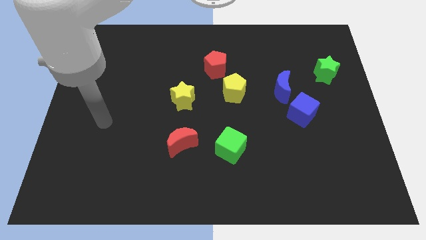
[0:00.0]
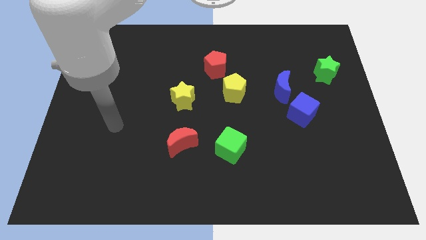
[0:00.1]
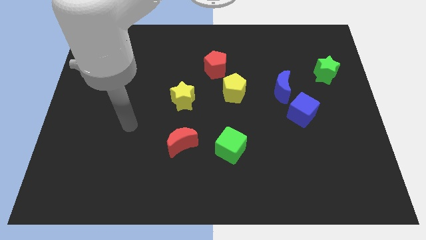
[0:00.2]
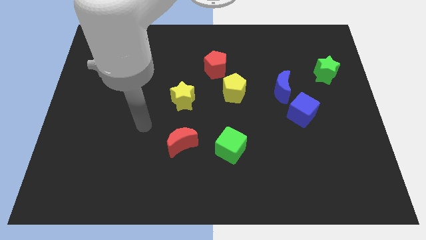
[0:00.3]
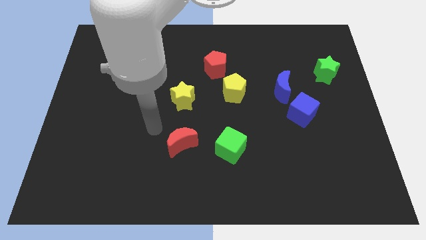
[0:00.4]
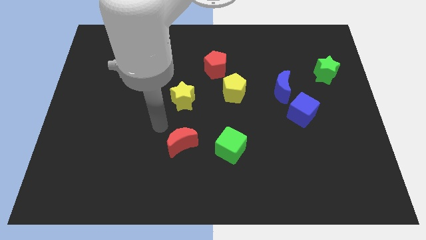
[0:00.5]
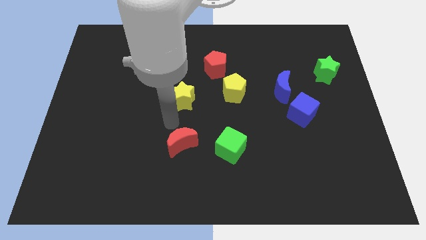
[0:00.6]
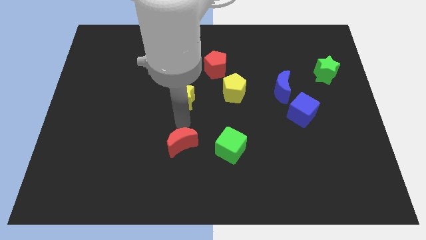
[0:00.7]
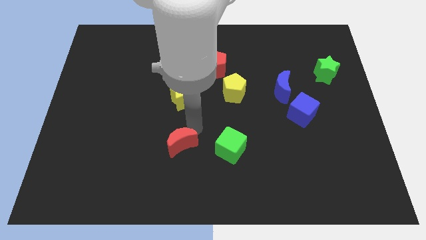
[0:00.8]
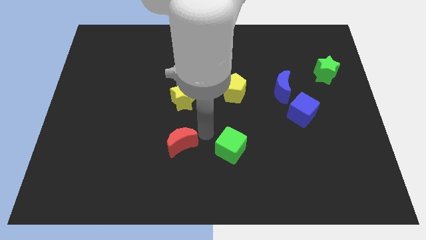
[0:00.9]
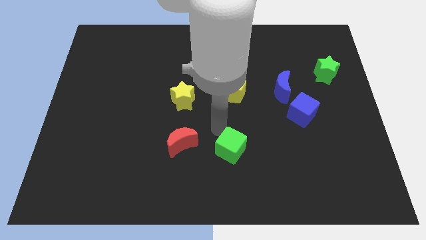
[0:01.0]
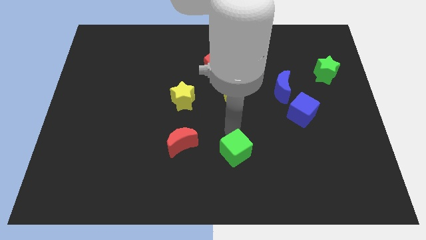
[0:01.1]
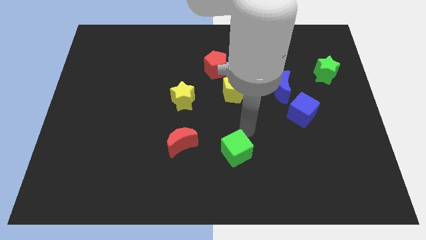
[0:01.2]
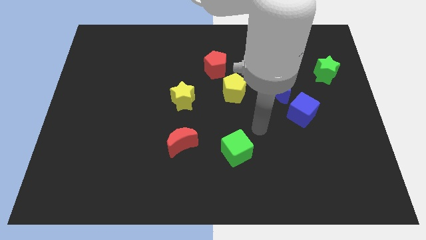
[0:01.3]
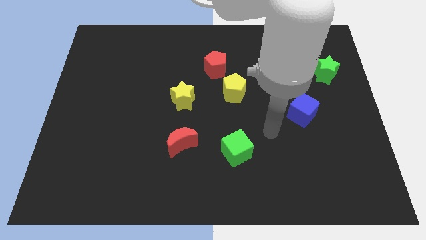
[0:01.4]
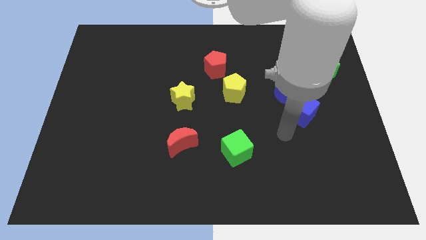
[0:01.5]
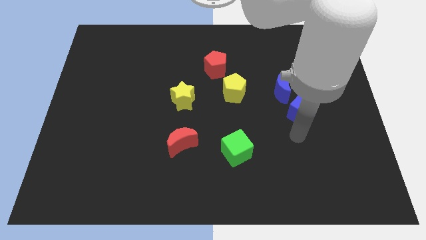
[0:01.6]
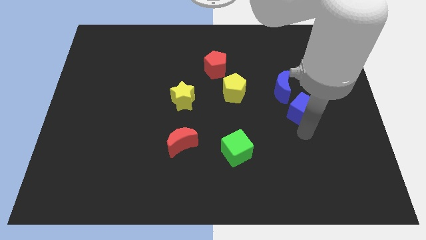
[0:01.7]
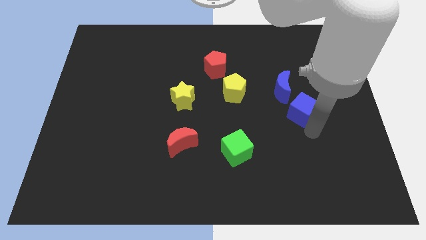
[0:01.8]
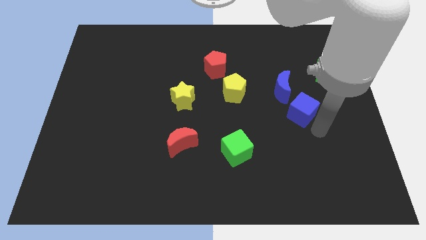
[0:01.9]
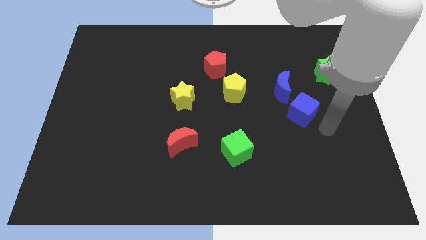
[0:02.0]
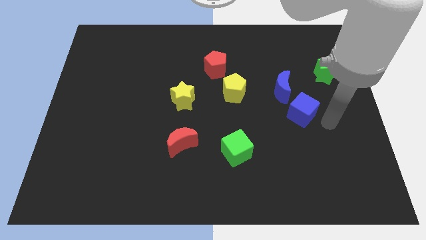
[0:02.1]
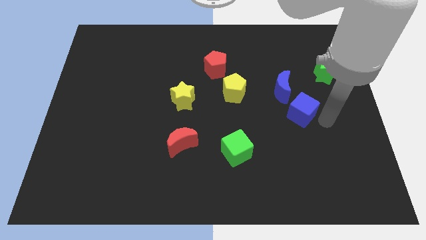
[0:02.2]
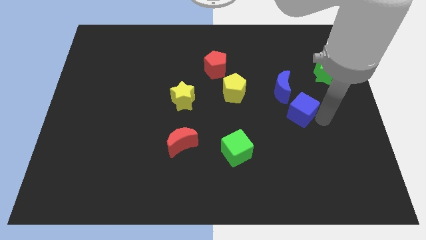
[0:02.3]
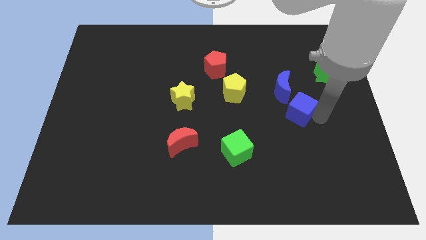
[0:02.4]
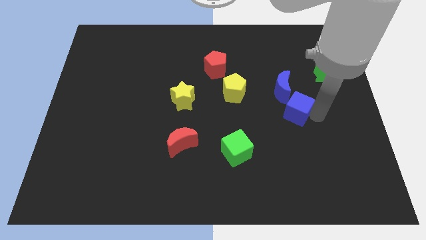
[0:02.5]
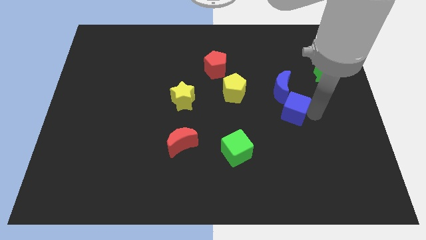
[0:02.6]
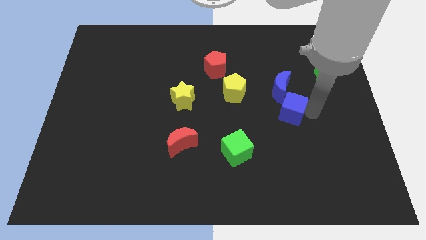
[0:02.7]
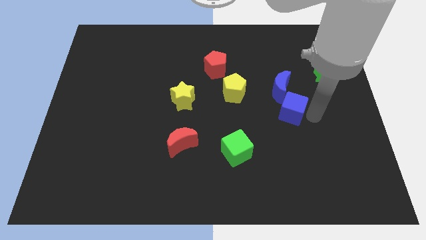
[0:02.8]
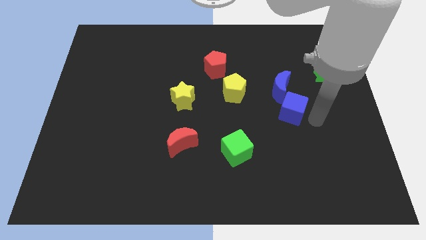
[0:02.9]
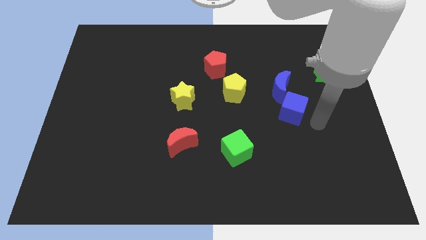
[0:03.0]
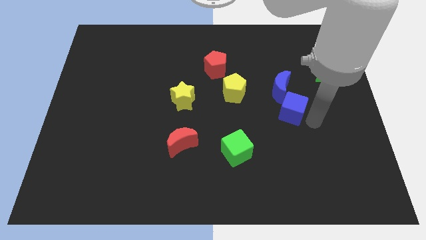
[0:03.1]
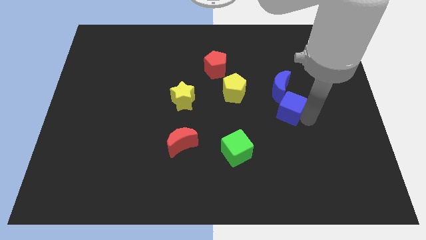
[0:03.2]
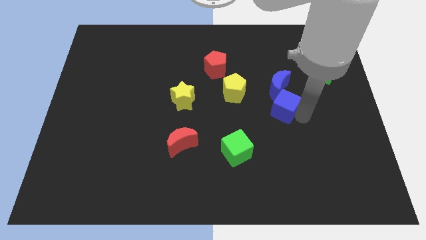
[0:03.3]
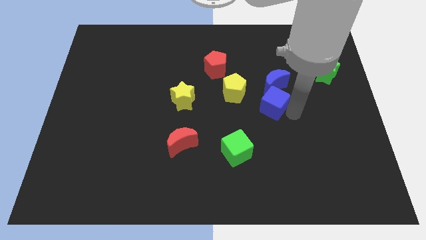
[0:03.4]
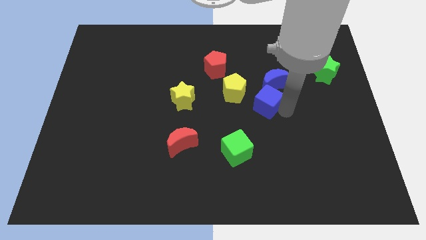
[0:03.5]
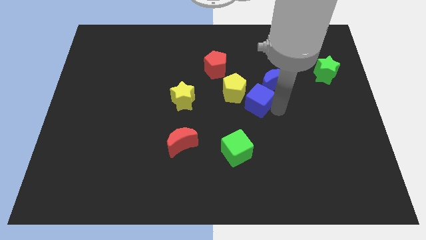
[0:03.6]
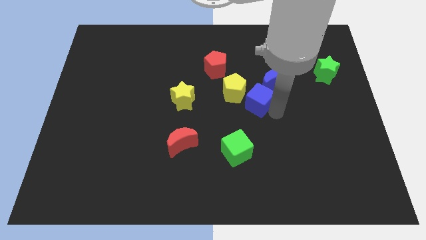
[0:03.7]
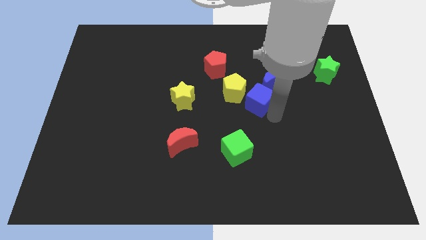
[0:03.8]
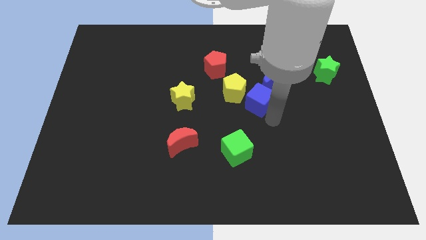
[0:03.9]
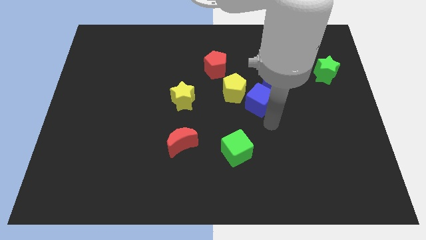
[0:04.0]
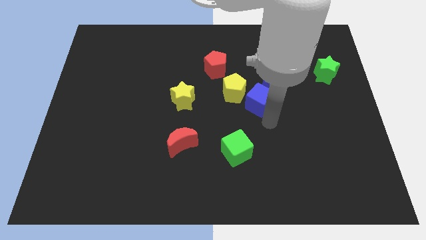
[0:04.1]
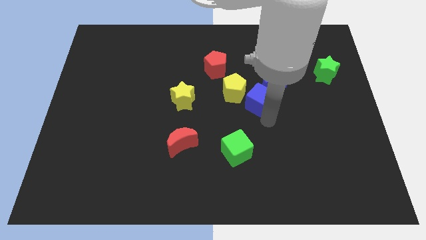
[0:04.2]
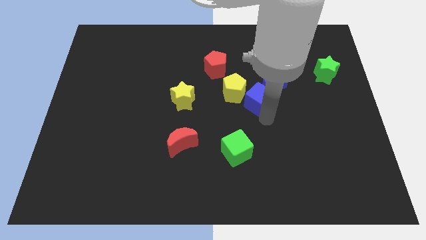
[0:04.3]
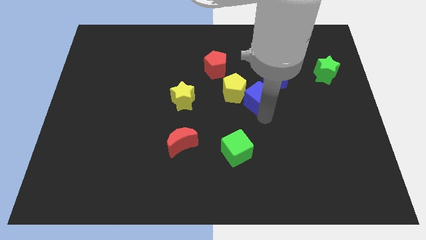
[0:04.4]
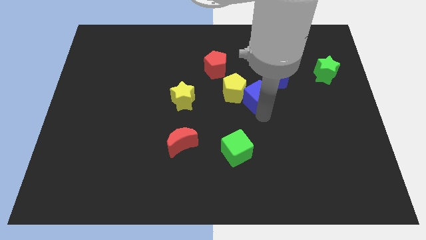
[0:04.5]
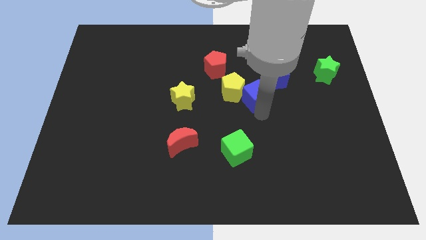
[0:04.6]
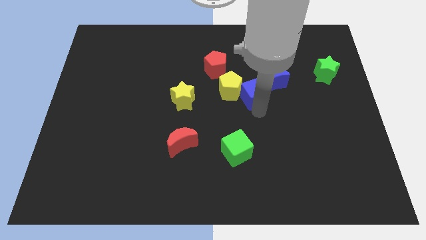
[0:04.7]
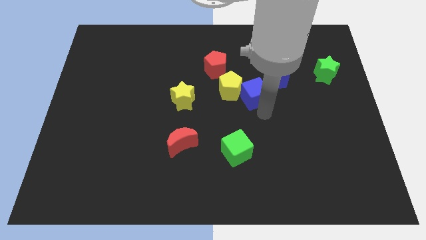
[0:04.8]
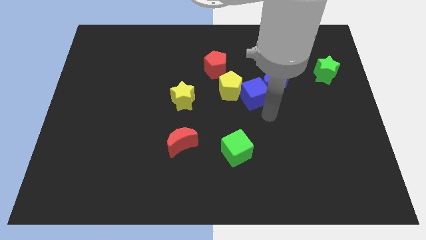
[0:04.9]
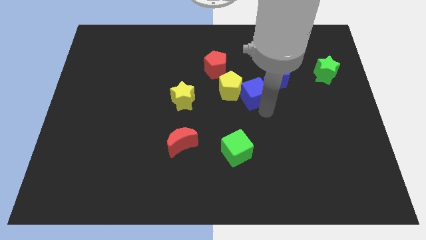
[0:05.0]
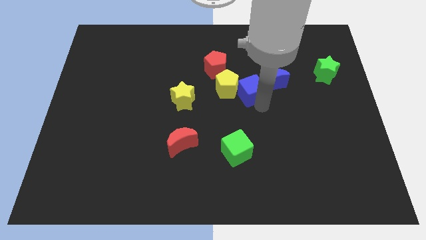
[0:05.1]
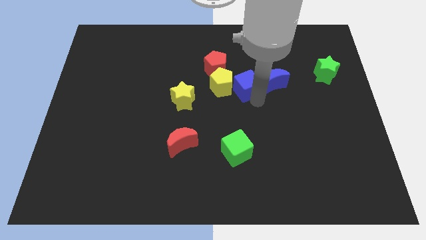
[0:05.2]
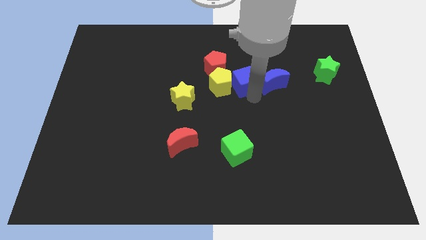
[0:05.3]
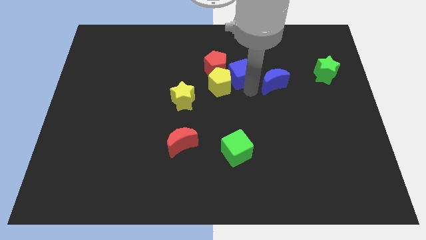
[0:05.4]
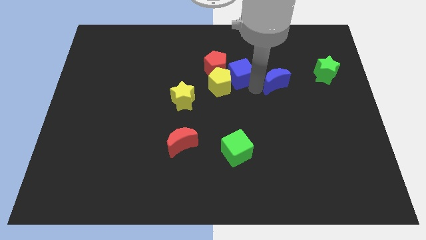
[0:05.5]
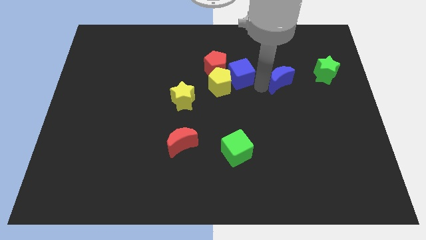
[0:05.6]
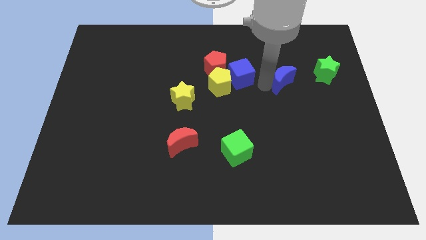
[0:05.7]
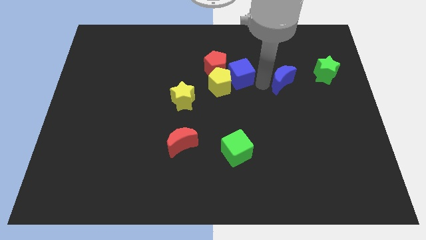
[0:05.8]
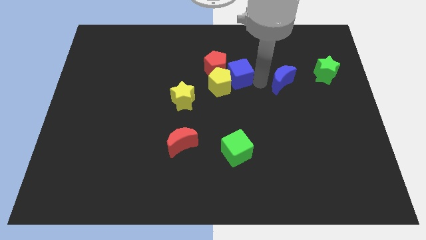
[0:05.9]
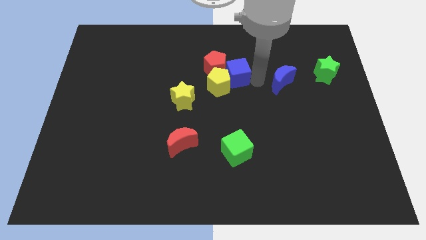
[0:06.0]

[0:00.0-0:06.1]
push the blue cube towards the red pentagon

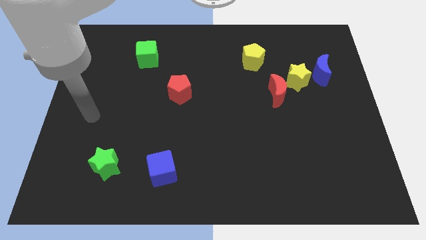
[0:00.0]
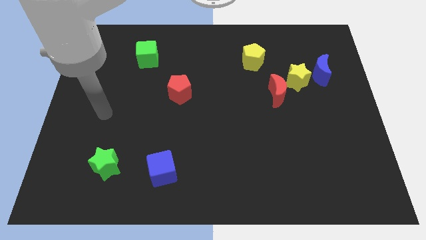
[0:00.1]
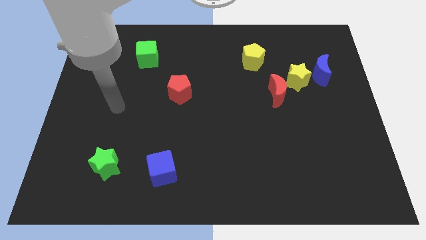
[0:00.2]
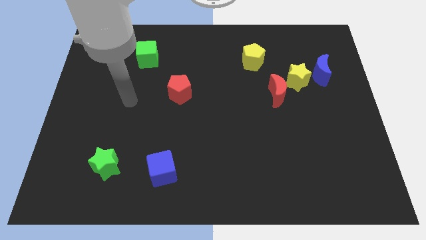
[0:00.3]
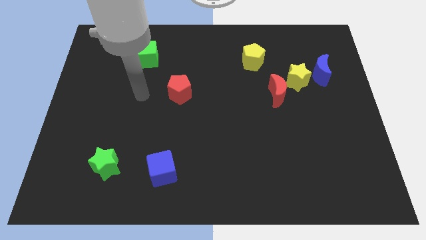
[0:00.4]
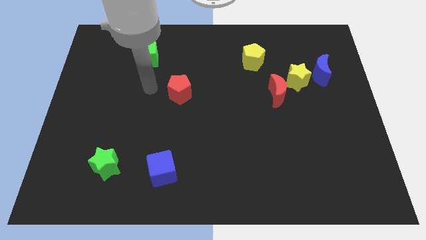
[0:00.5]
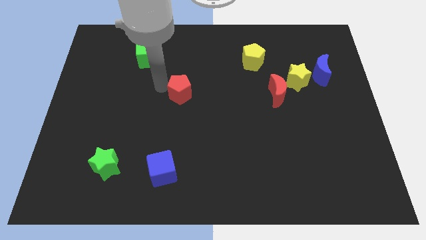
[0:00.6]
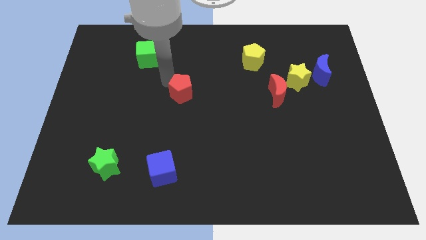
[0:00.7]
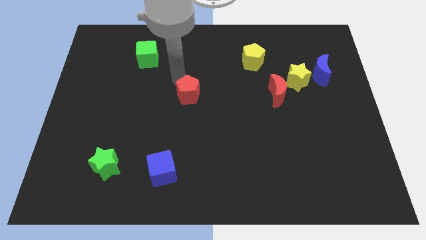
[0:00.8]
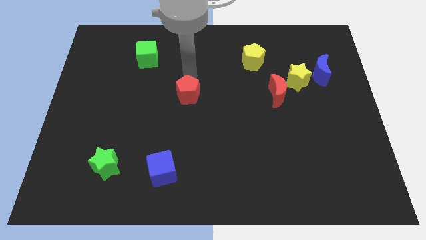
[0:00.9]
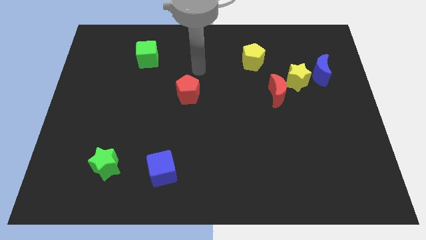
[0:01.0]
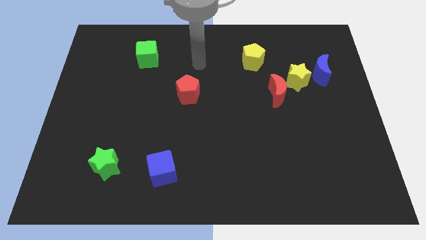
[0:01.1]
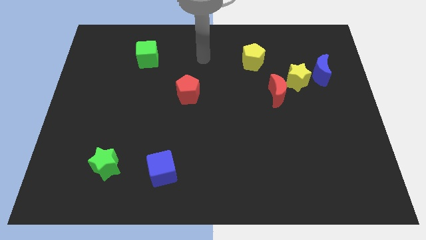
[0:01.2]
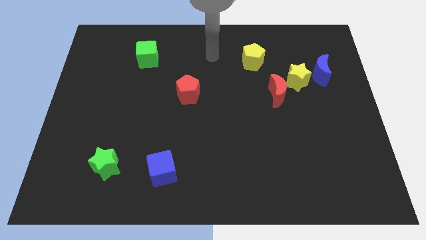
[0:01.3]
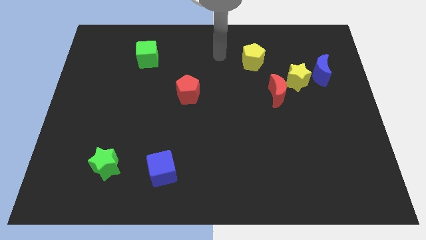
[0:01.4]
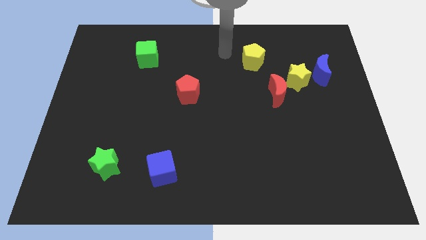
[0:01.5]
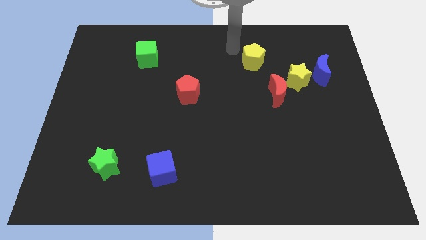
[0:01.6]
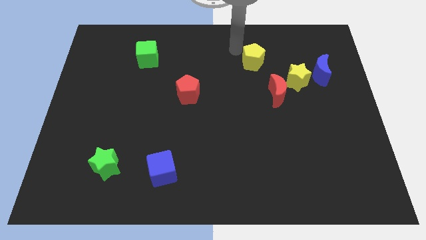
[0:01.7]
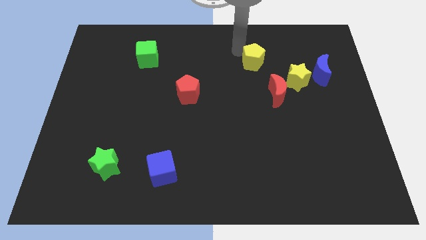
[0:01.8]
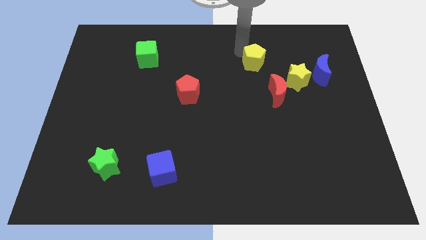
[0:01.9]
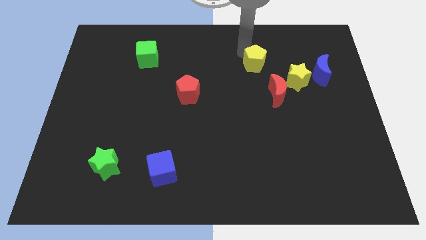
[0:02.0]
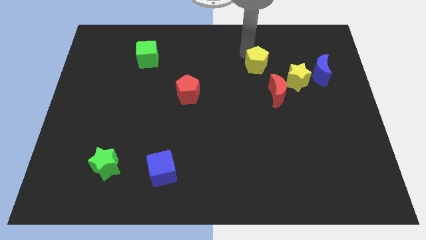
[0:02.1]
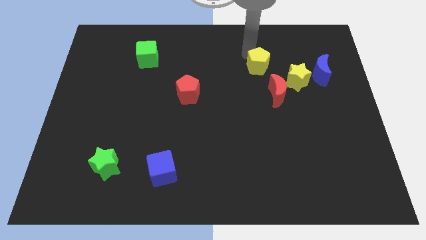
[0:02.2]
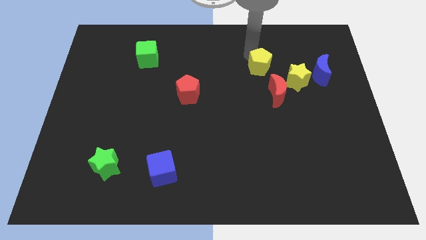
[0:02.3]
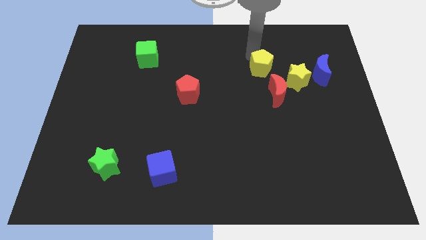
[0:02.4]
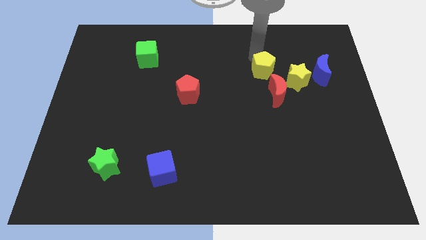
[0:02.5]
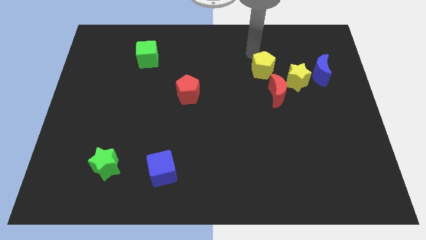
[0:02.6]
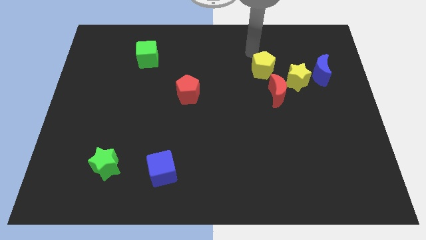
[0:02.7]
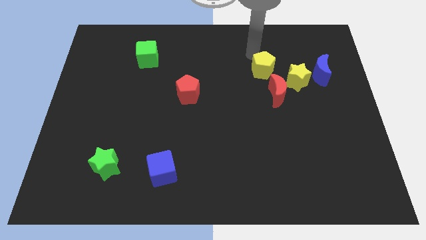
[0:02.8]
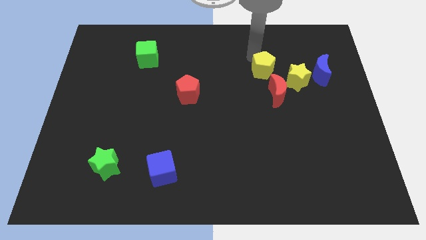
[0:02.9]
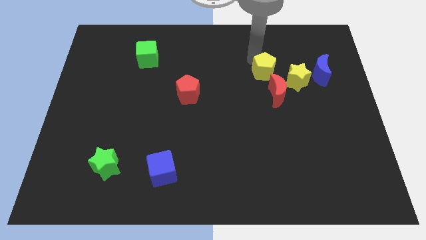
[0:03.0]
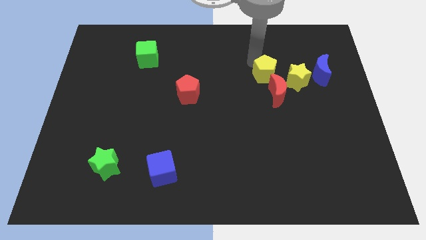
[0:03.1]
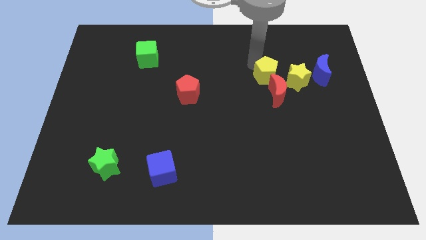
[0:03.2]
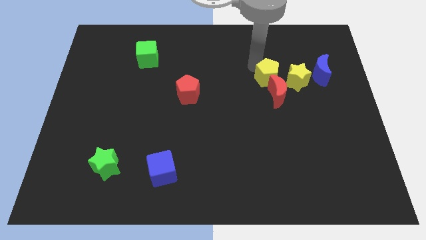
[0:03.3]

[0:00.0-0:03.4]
slide the yellow pentagon next to the red moon
